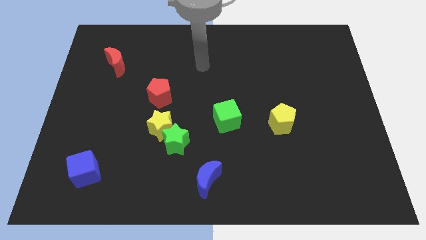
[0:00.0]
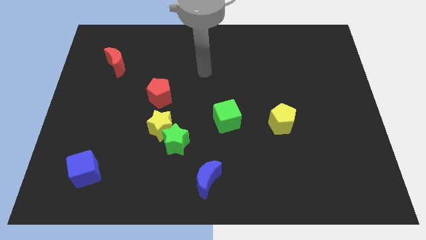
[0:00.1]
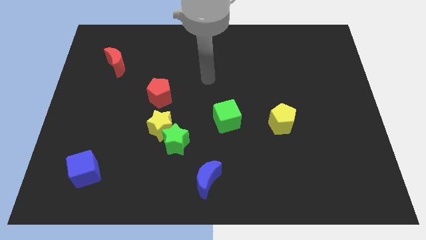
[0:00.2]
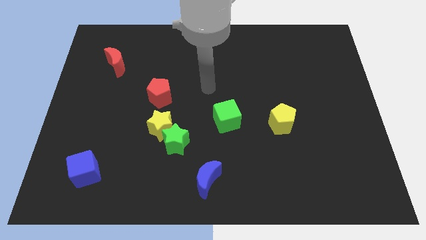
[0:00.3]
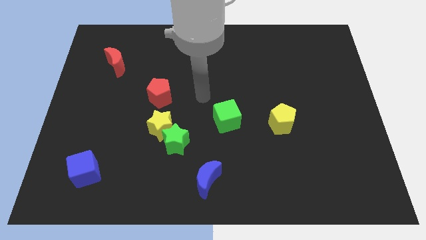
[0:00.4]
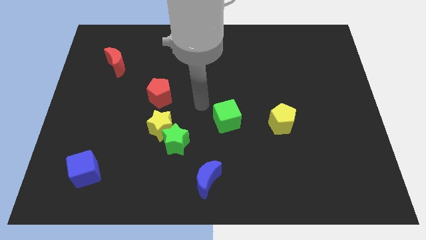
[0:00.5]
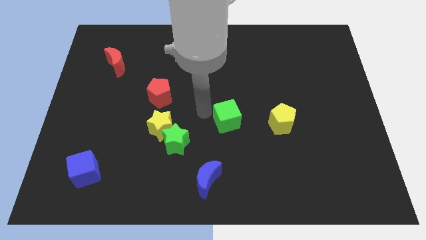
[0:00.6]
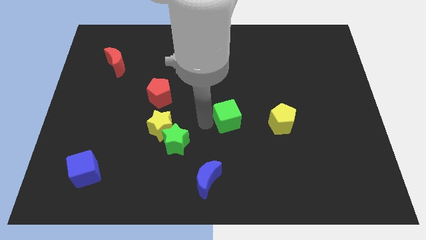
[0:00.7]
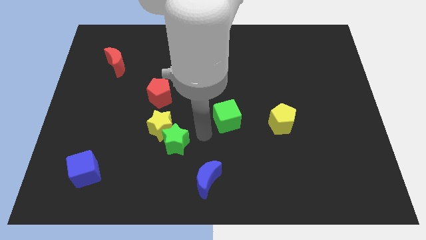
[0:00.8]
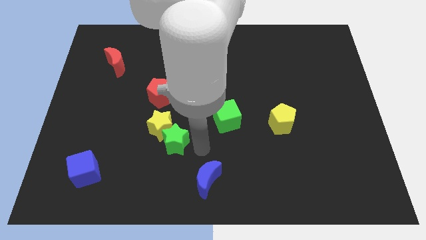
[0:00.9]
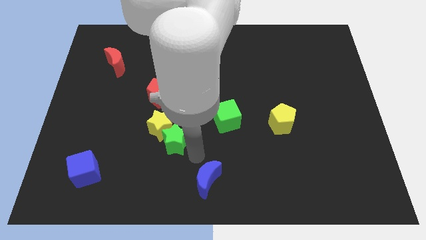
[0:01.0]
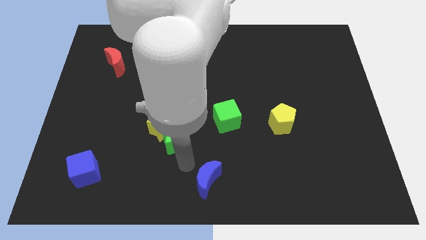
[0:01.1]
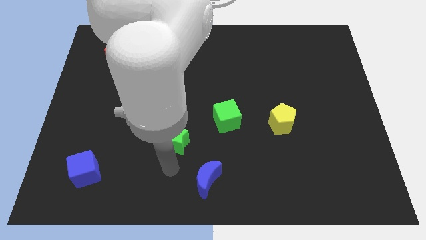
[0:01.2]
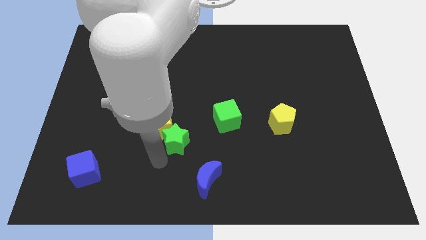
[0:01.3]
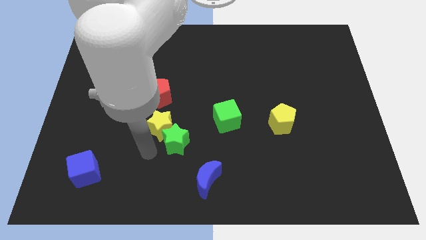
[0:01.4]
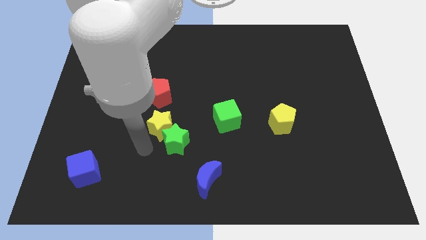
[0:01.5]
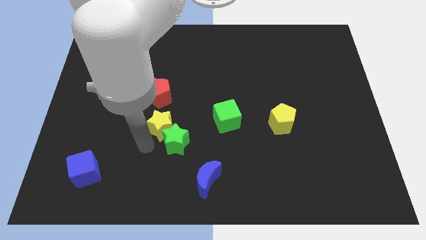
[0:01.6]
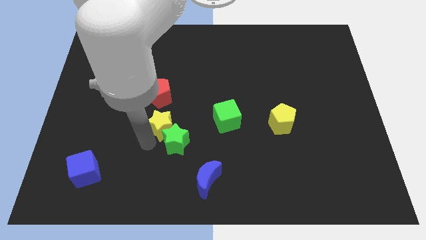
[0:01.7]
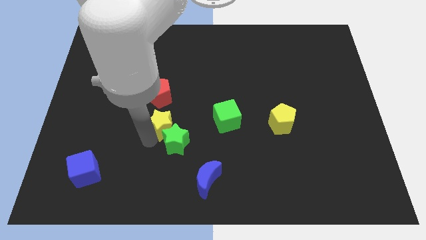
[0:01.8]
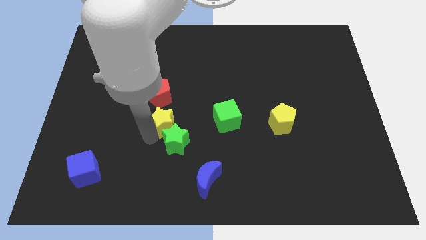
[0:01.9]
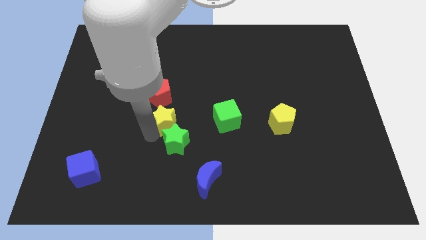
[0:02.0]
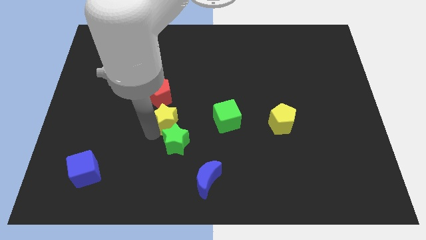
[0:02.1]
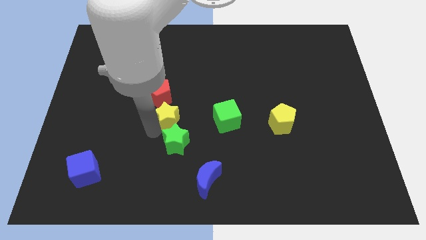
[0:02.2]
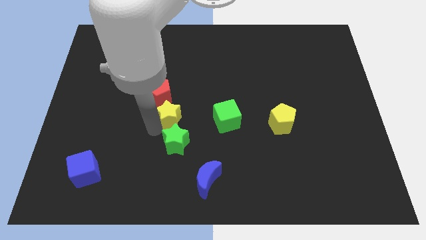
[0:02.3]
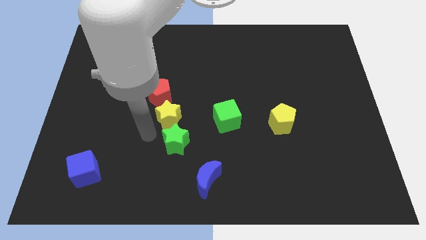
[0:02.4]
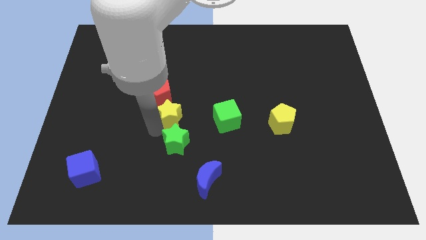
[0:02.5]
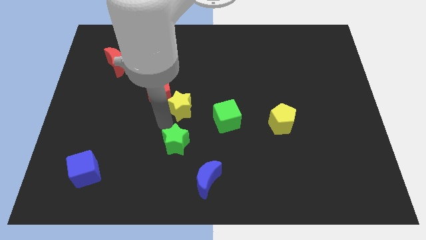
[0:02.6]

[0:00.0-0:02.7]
slide the yellow star a bit upwards and to the right

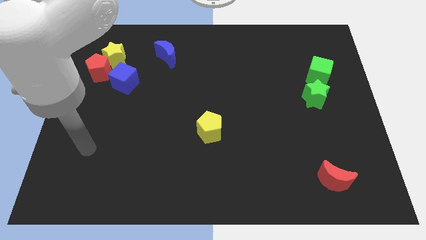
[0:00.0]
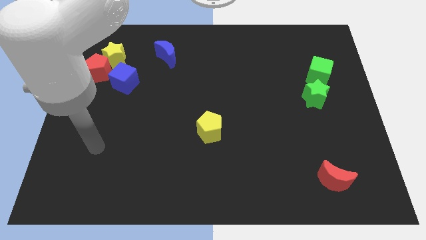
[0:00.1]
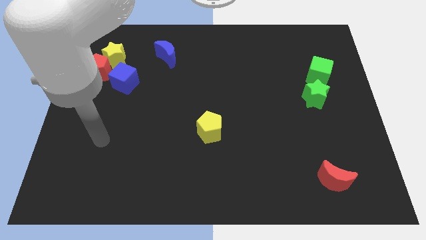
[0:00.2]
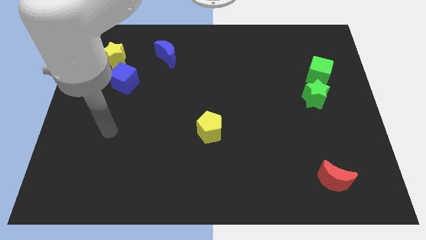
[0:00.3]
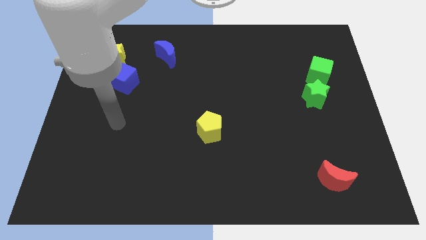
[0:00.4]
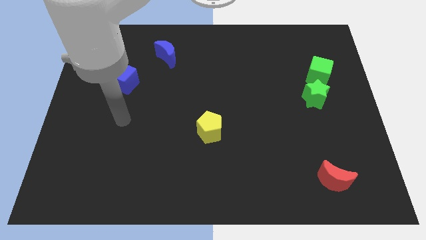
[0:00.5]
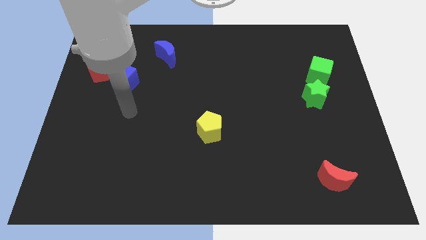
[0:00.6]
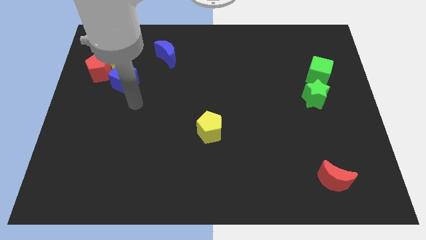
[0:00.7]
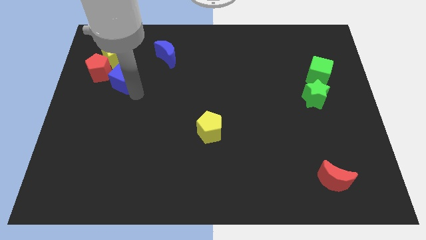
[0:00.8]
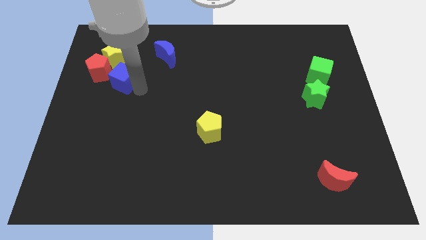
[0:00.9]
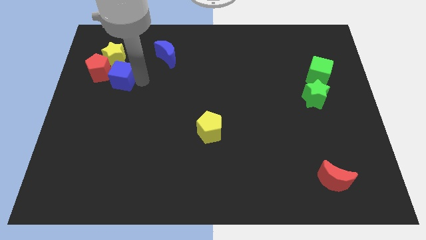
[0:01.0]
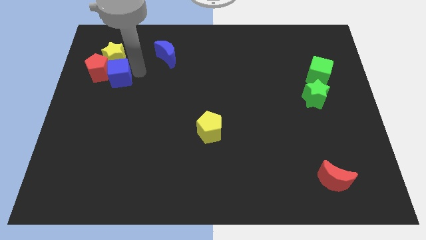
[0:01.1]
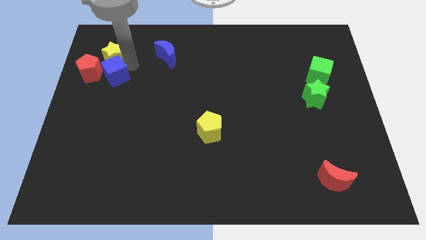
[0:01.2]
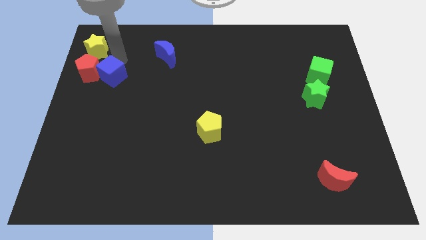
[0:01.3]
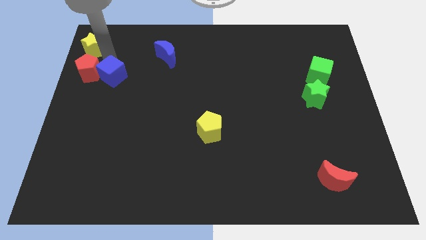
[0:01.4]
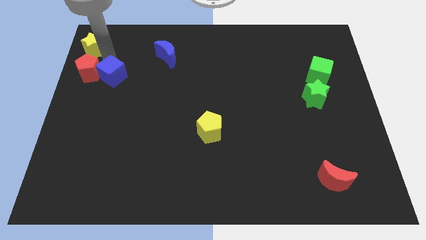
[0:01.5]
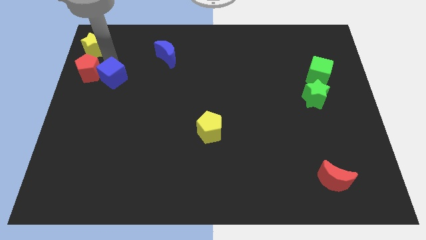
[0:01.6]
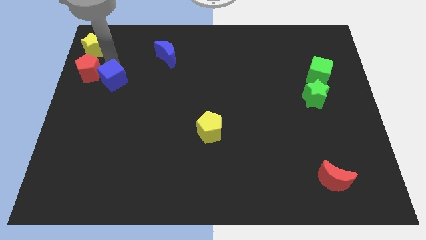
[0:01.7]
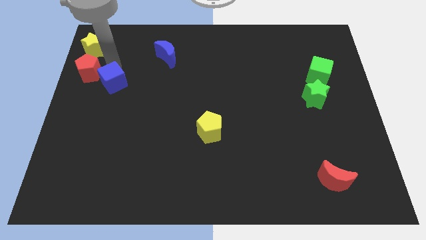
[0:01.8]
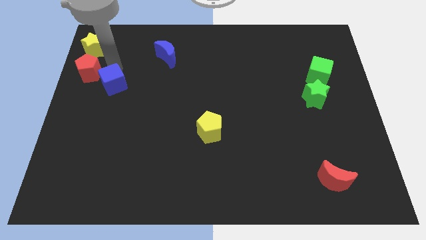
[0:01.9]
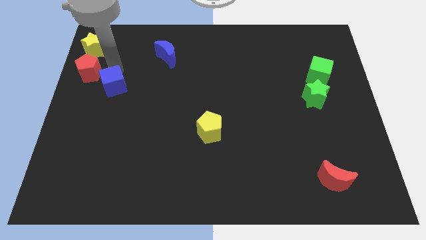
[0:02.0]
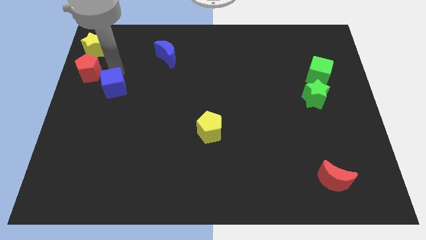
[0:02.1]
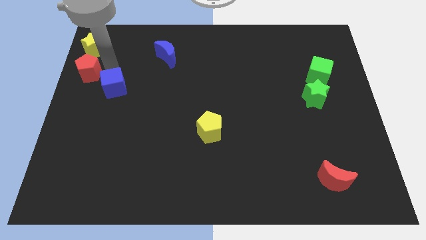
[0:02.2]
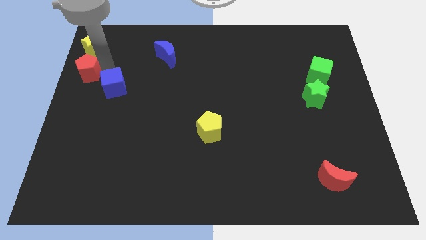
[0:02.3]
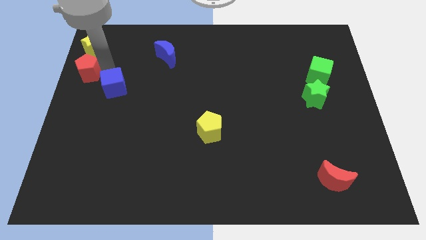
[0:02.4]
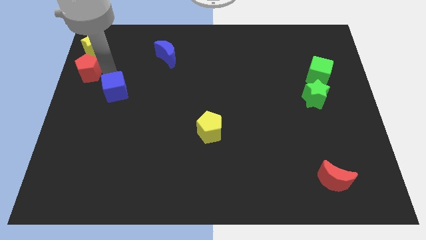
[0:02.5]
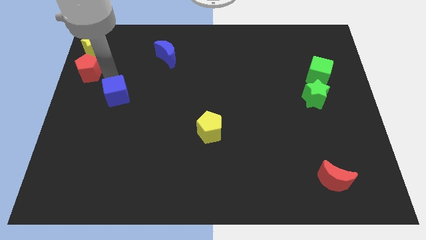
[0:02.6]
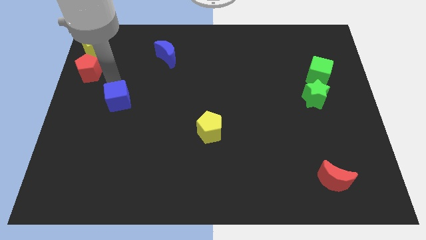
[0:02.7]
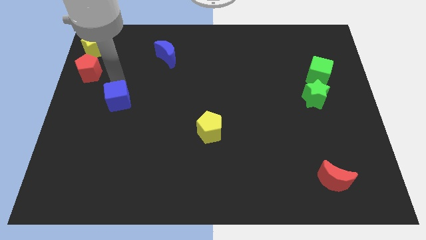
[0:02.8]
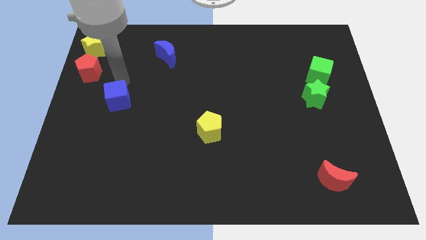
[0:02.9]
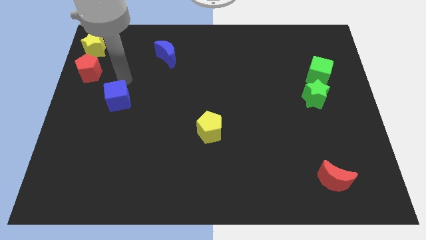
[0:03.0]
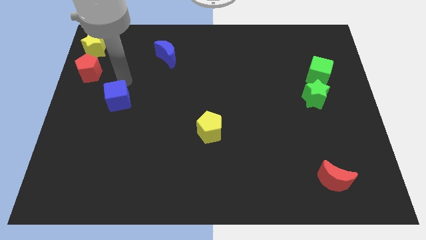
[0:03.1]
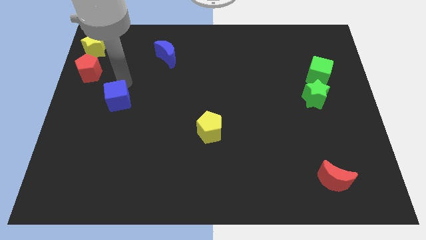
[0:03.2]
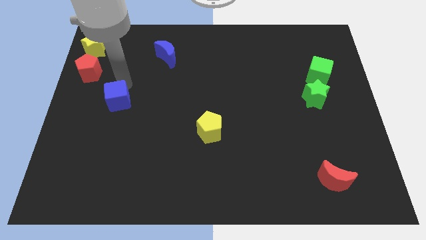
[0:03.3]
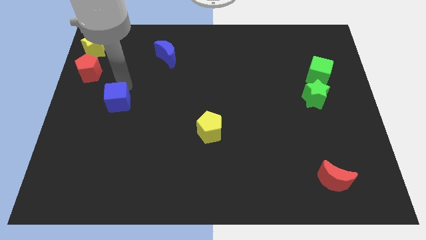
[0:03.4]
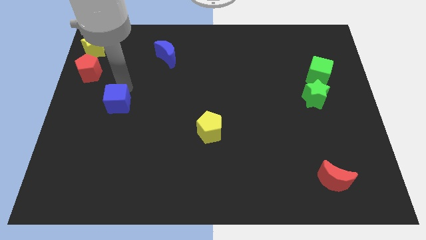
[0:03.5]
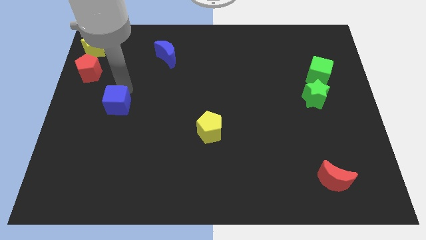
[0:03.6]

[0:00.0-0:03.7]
move the blue cube downwards a little bit

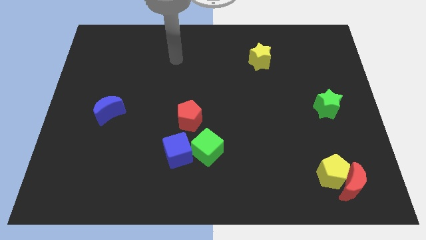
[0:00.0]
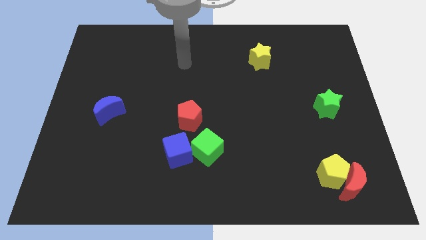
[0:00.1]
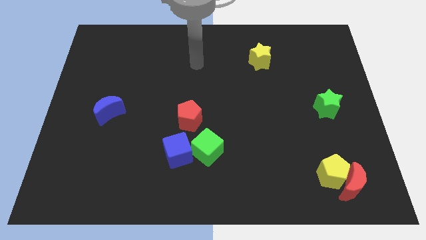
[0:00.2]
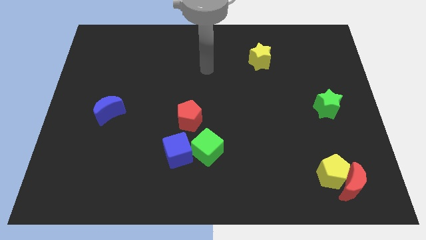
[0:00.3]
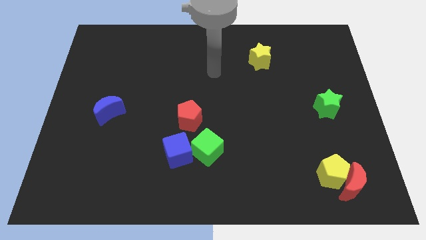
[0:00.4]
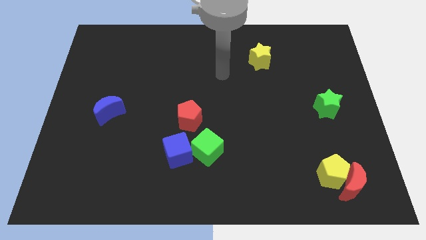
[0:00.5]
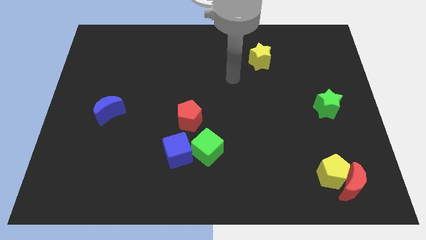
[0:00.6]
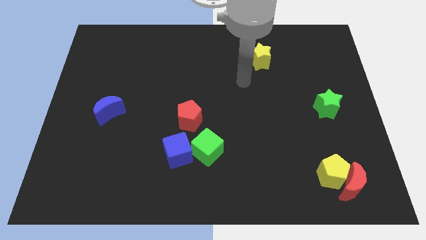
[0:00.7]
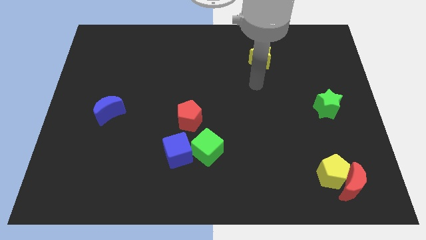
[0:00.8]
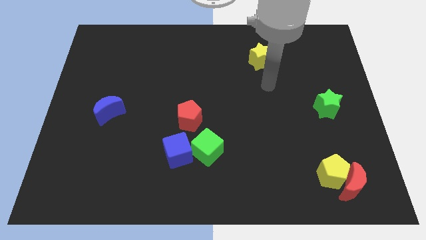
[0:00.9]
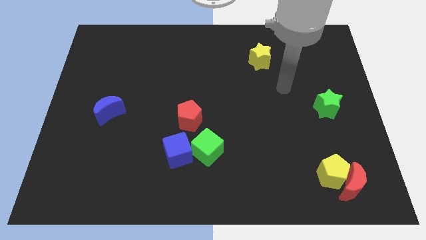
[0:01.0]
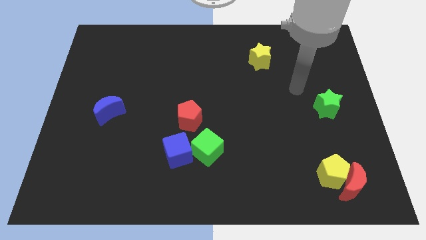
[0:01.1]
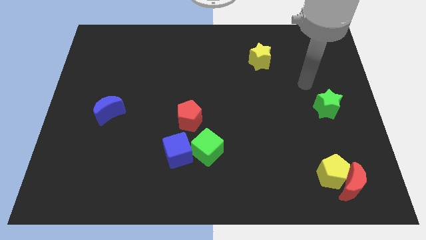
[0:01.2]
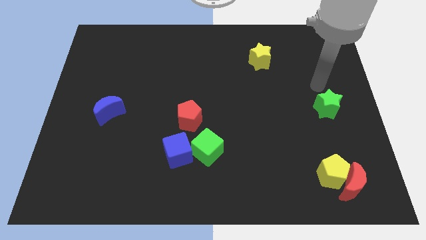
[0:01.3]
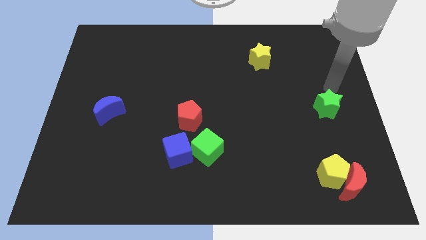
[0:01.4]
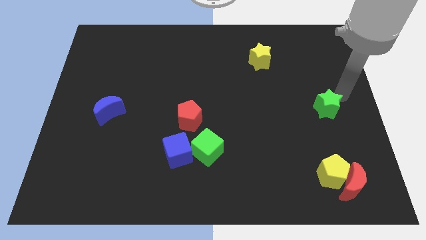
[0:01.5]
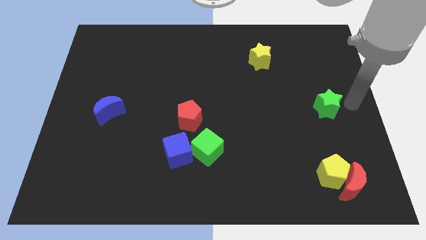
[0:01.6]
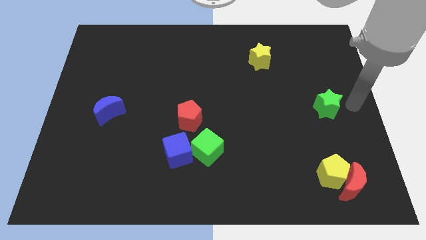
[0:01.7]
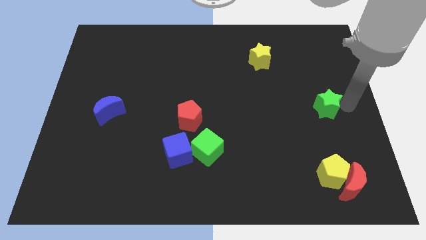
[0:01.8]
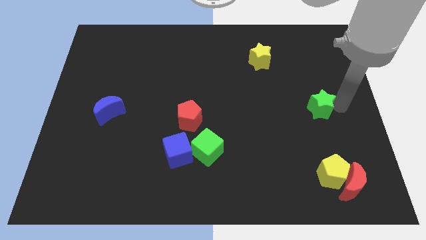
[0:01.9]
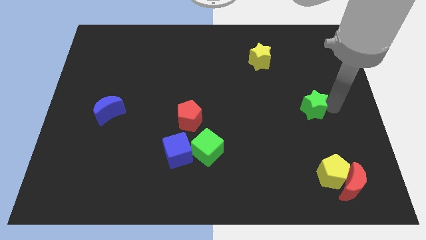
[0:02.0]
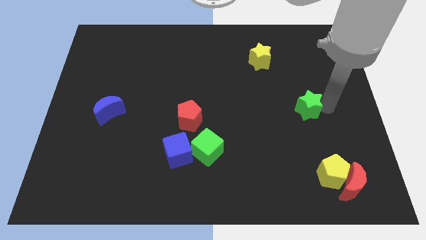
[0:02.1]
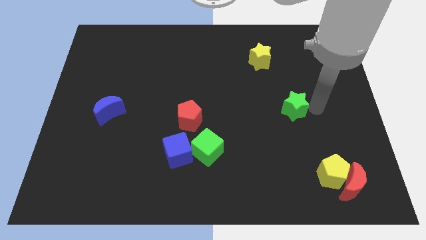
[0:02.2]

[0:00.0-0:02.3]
move the green star a little left
